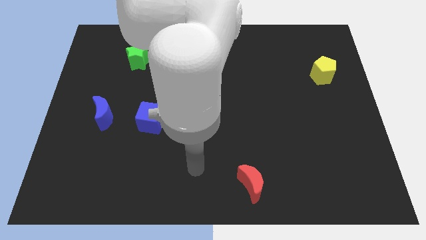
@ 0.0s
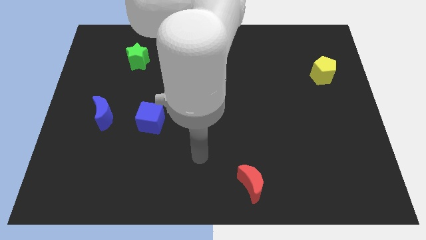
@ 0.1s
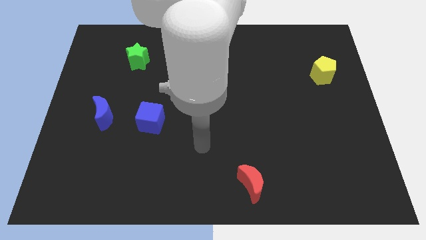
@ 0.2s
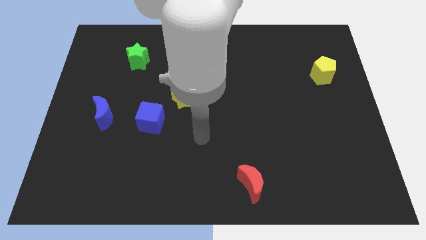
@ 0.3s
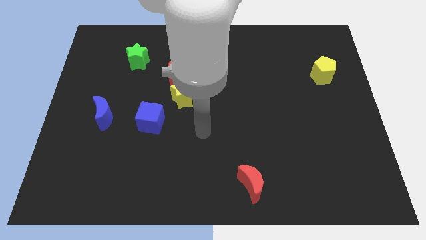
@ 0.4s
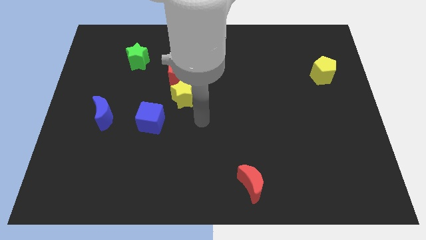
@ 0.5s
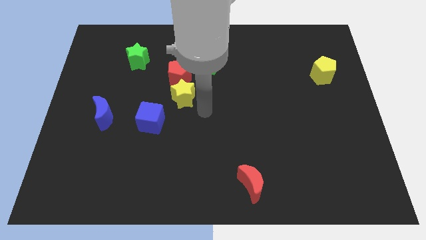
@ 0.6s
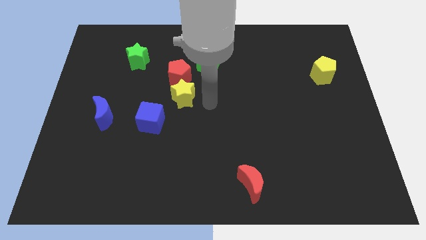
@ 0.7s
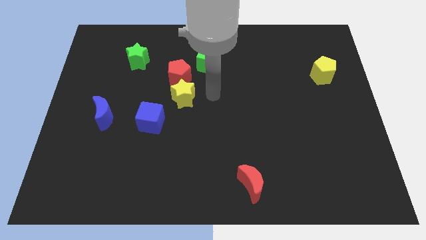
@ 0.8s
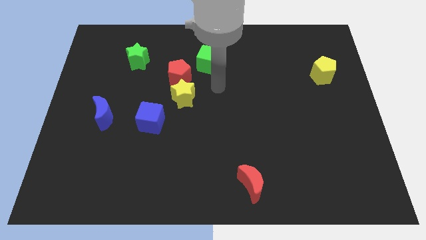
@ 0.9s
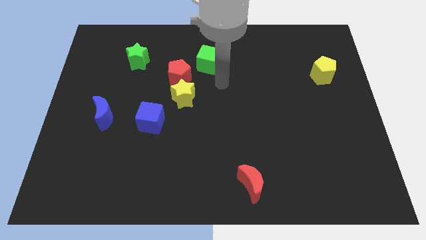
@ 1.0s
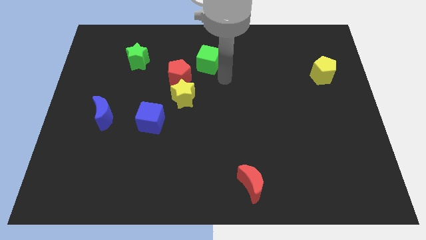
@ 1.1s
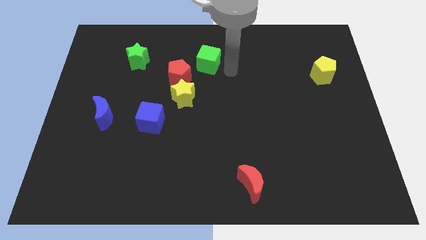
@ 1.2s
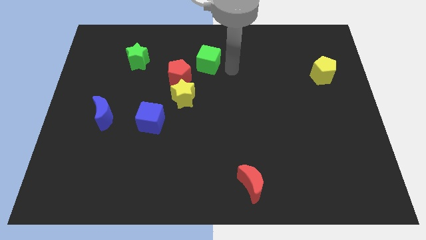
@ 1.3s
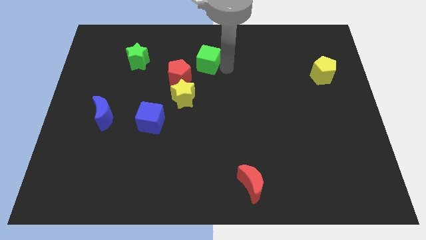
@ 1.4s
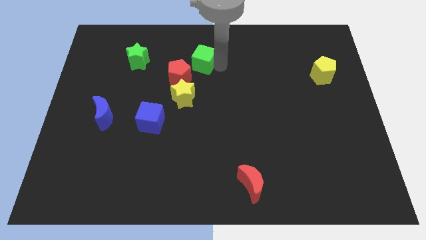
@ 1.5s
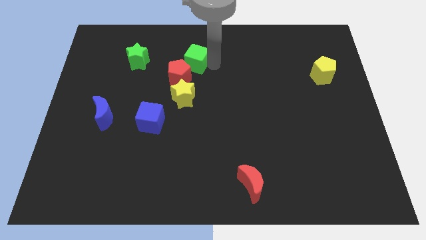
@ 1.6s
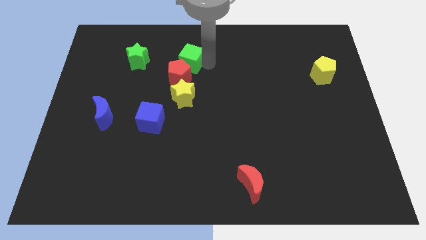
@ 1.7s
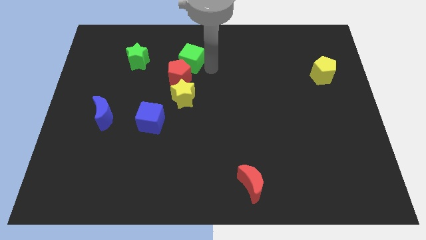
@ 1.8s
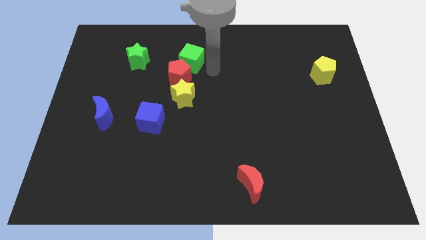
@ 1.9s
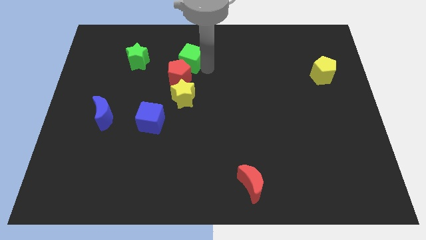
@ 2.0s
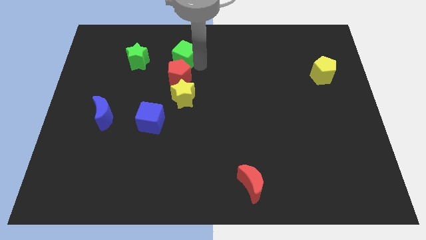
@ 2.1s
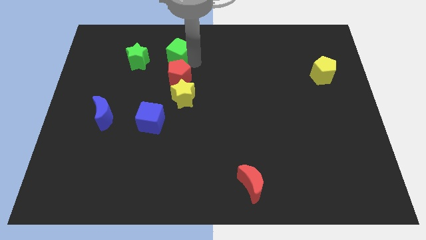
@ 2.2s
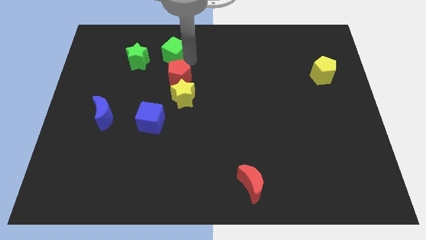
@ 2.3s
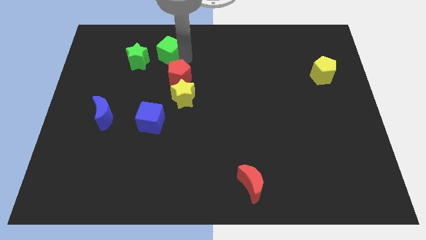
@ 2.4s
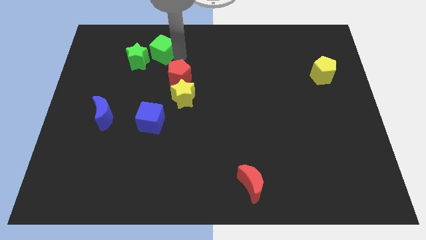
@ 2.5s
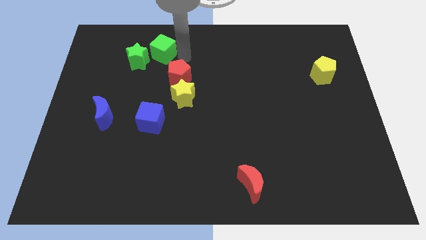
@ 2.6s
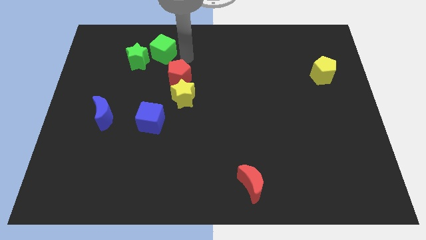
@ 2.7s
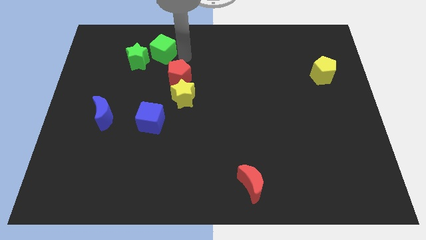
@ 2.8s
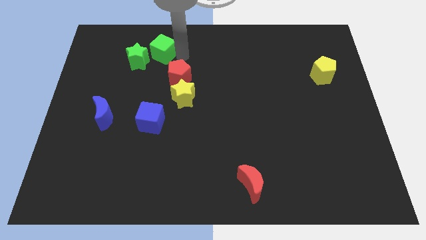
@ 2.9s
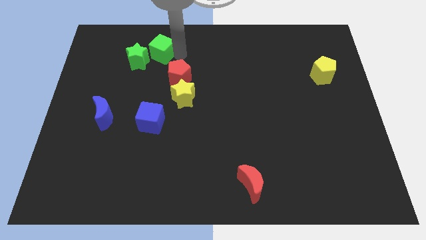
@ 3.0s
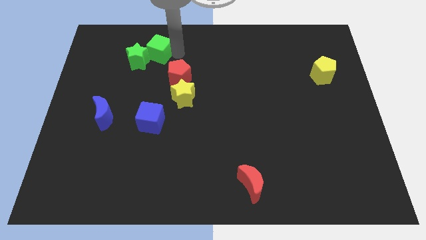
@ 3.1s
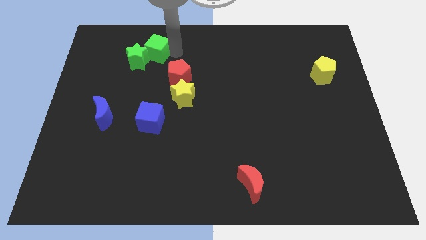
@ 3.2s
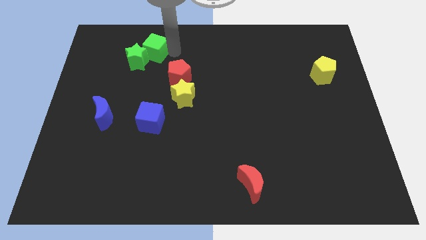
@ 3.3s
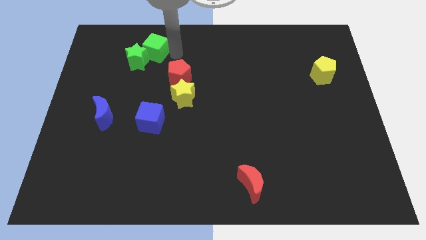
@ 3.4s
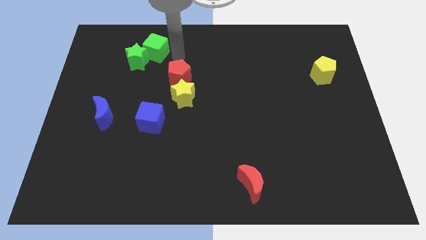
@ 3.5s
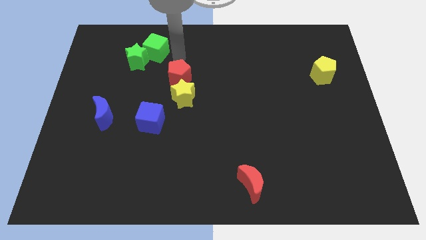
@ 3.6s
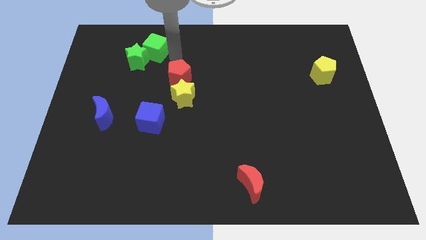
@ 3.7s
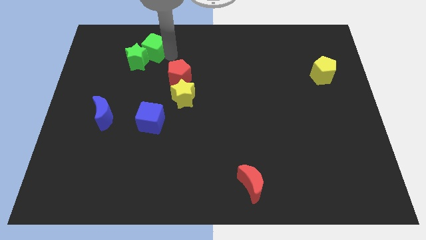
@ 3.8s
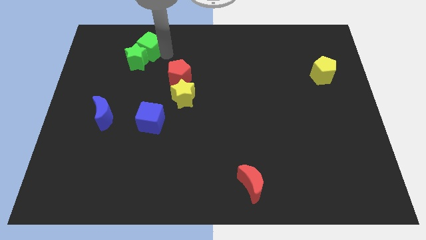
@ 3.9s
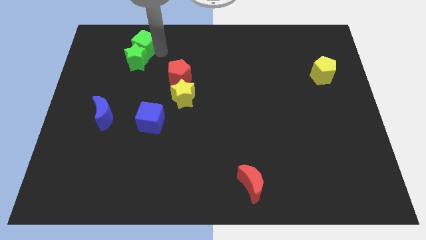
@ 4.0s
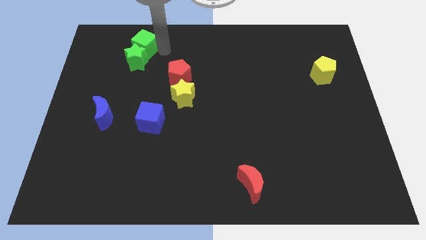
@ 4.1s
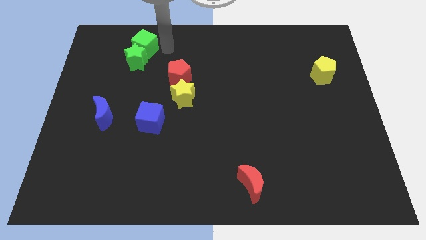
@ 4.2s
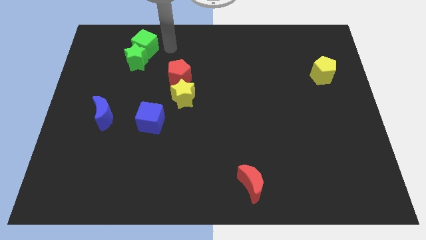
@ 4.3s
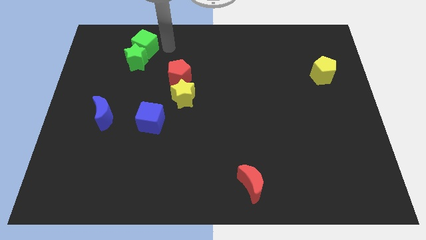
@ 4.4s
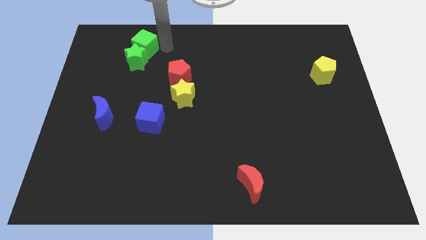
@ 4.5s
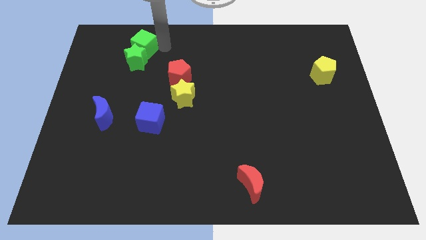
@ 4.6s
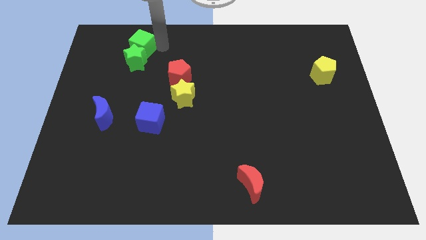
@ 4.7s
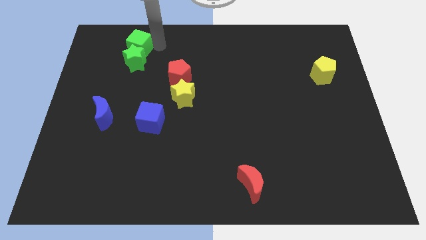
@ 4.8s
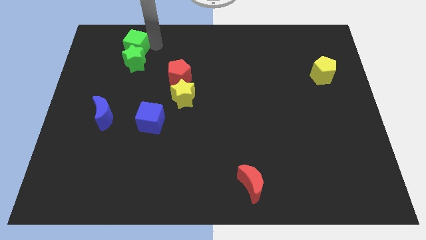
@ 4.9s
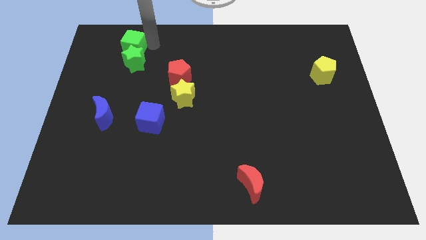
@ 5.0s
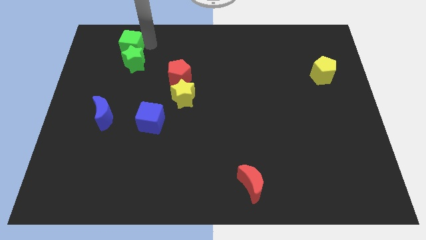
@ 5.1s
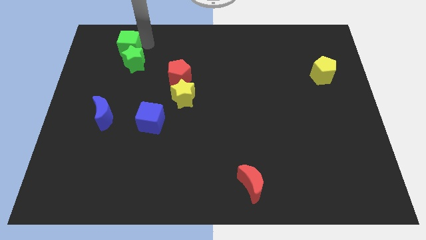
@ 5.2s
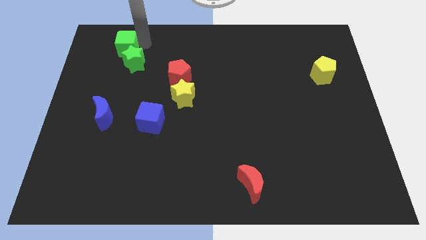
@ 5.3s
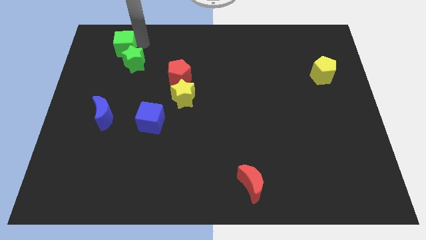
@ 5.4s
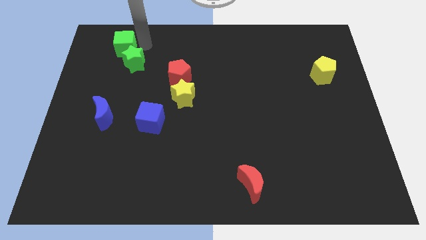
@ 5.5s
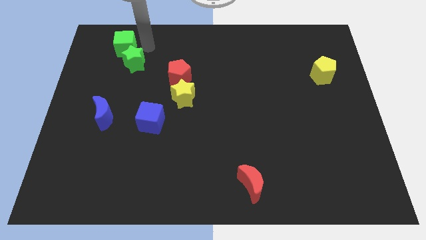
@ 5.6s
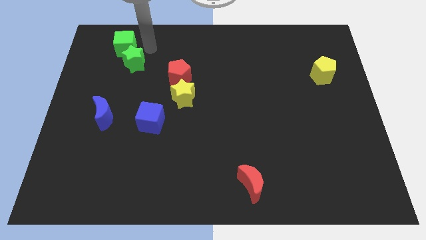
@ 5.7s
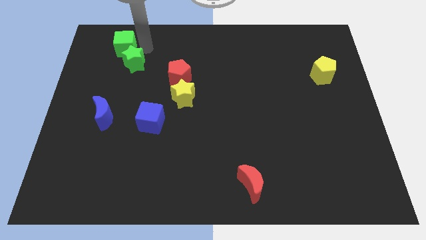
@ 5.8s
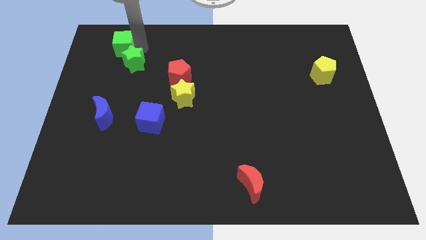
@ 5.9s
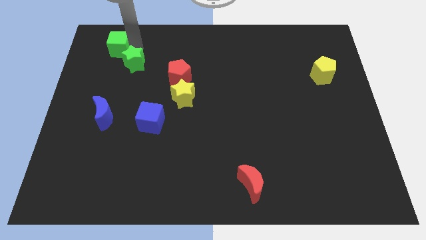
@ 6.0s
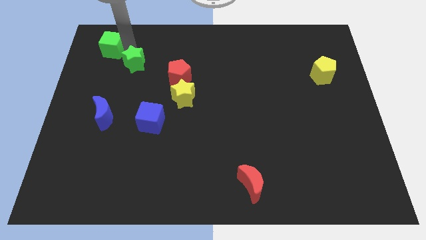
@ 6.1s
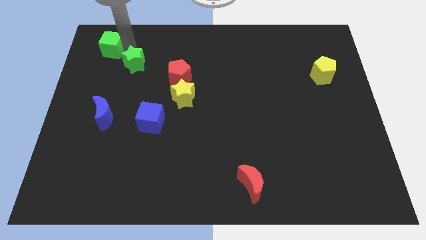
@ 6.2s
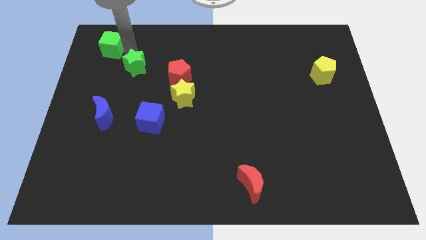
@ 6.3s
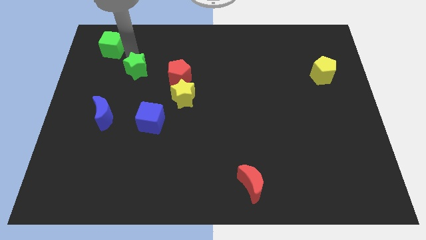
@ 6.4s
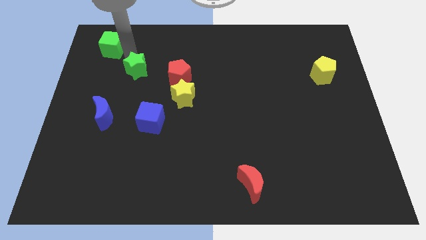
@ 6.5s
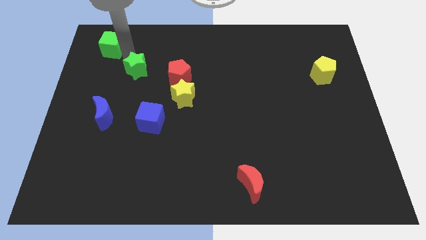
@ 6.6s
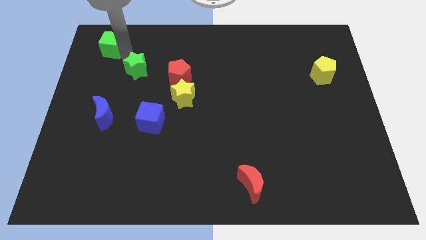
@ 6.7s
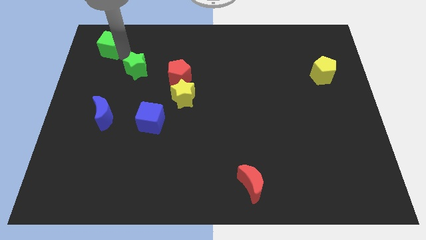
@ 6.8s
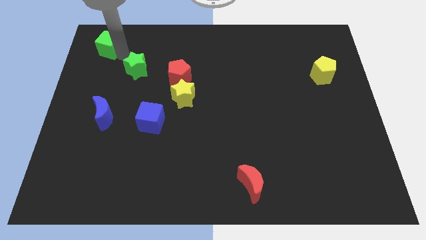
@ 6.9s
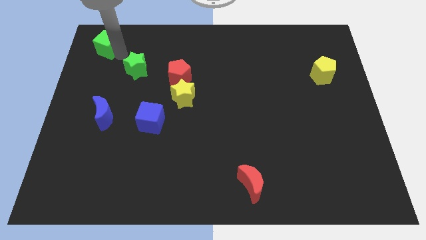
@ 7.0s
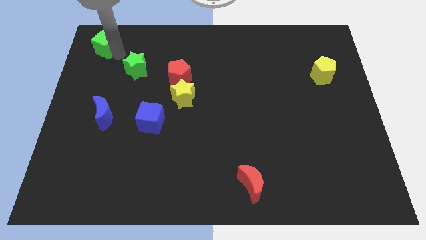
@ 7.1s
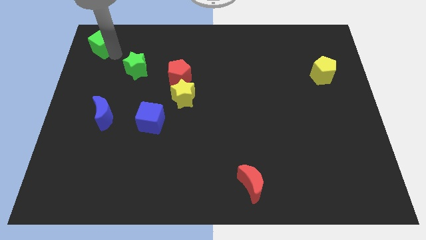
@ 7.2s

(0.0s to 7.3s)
put the green cube to the upper left corner
